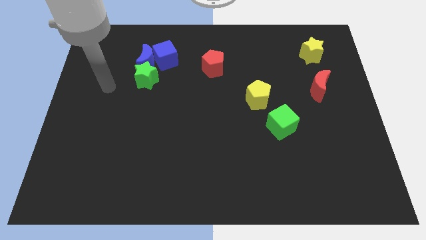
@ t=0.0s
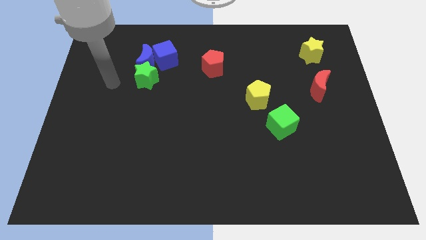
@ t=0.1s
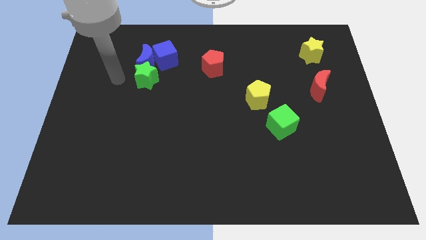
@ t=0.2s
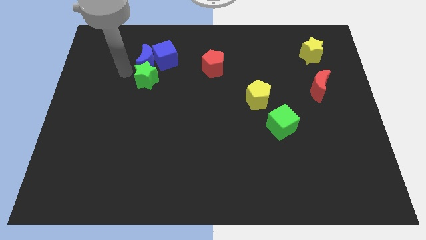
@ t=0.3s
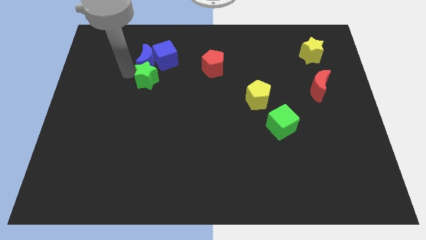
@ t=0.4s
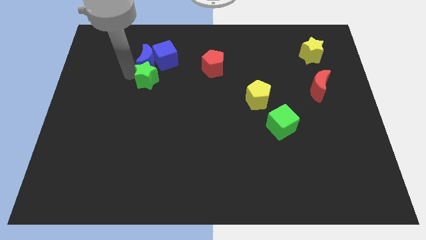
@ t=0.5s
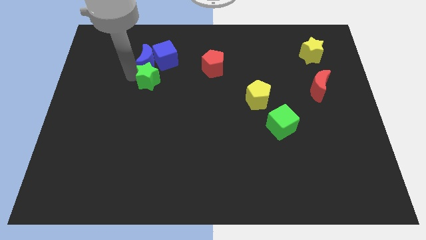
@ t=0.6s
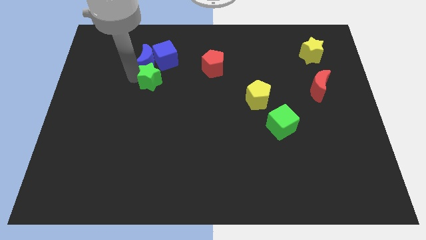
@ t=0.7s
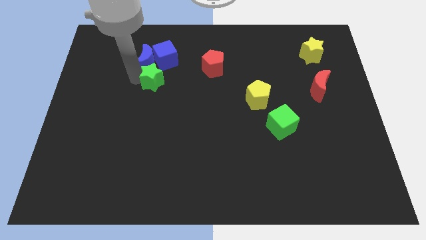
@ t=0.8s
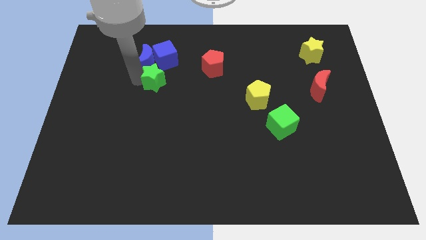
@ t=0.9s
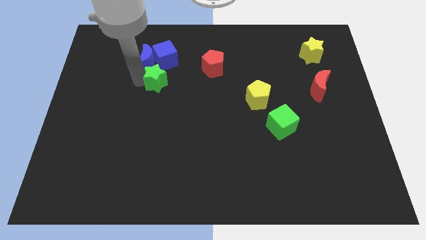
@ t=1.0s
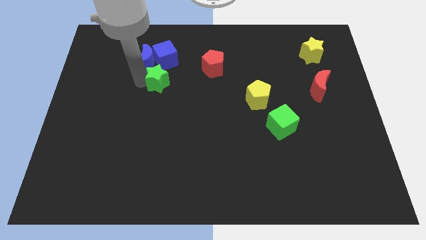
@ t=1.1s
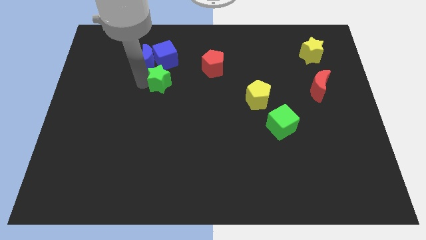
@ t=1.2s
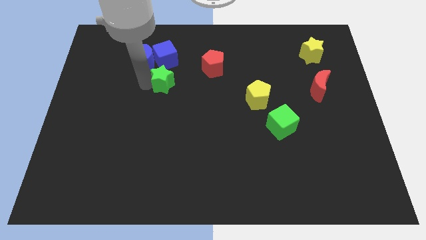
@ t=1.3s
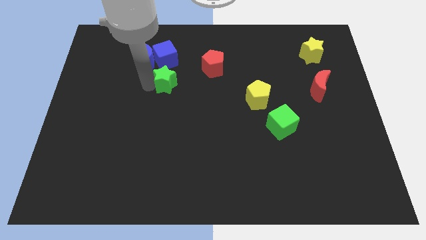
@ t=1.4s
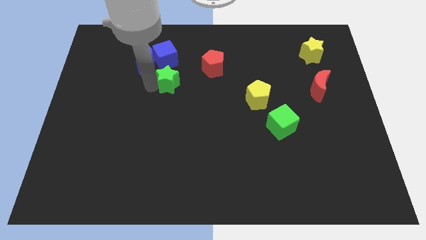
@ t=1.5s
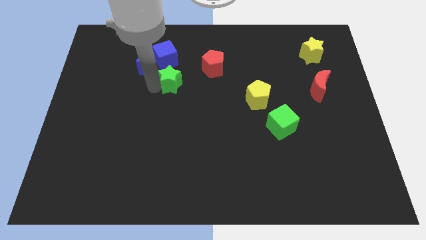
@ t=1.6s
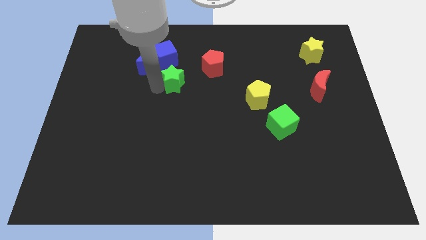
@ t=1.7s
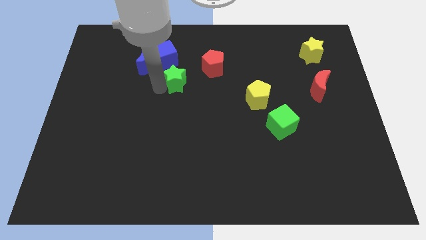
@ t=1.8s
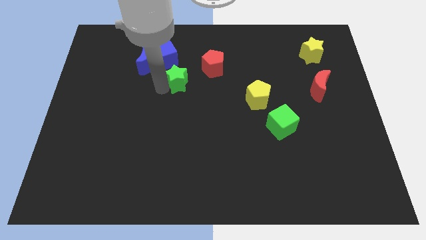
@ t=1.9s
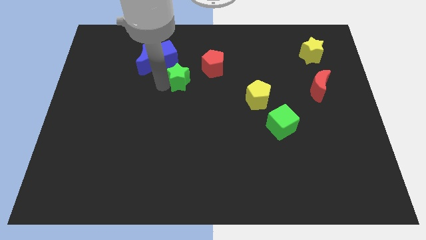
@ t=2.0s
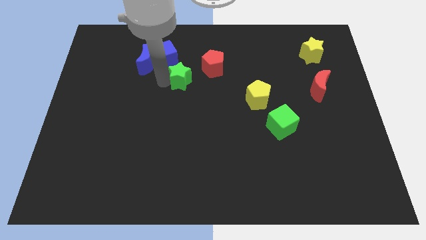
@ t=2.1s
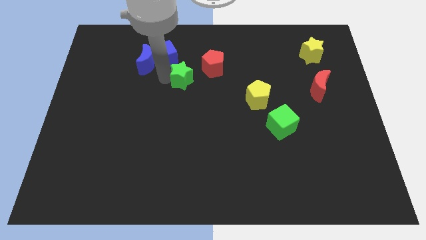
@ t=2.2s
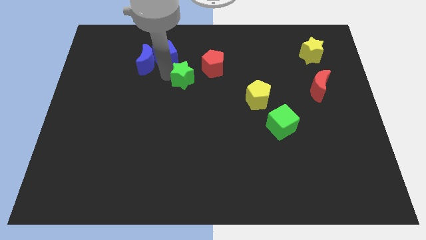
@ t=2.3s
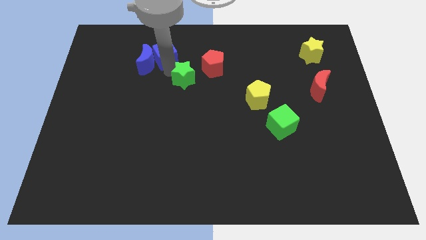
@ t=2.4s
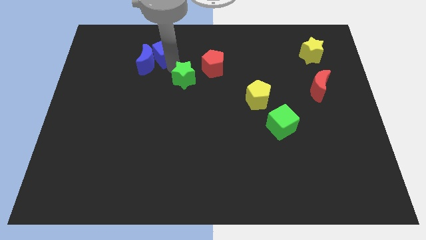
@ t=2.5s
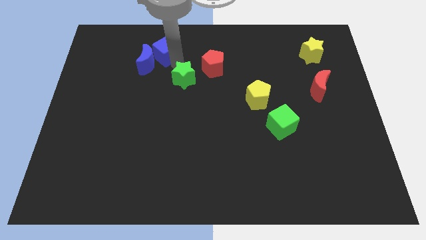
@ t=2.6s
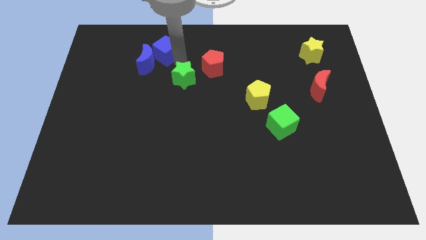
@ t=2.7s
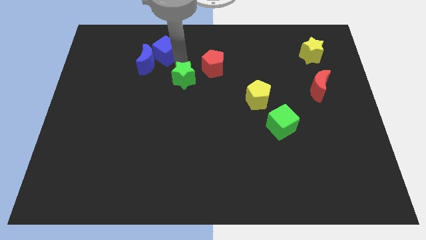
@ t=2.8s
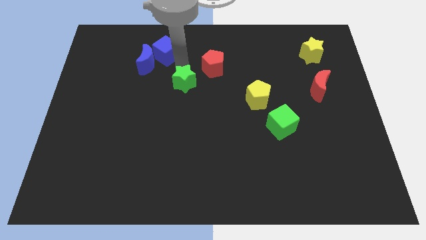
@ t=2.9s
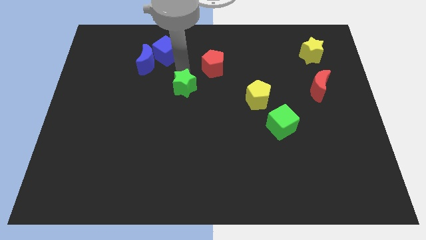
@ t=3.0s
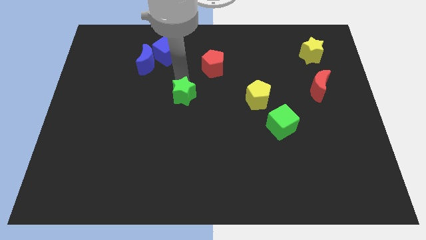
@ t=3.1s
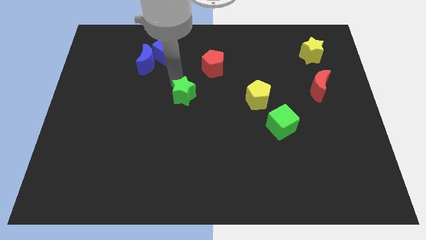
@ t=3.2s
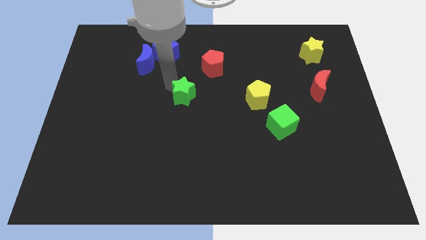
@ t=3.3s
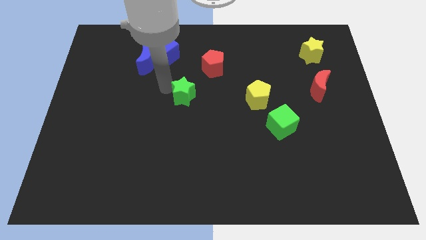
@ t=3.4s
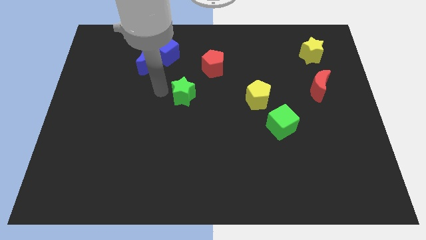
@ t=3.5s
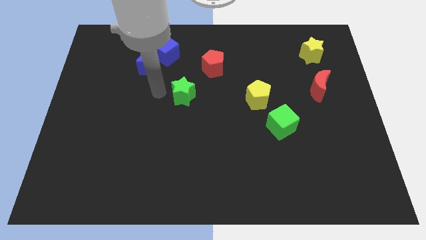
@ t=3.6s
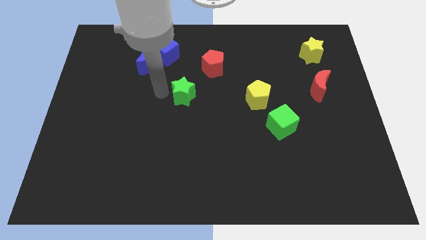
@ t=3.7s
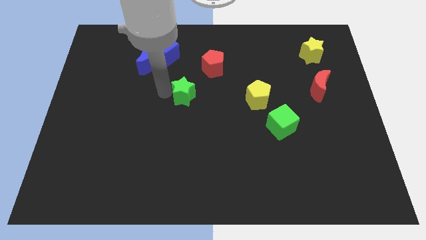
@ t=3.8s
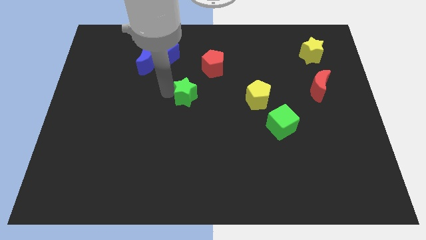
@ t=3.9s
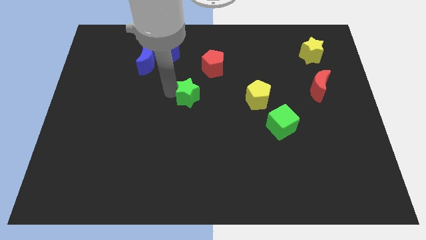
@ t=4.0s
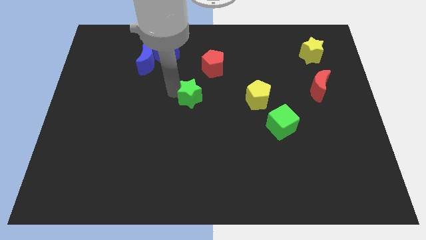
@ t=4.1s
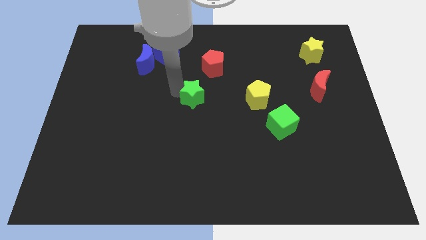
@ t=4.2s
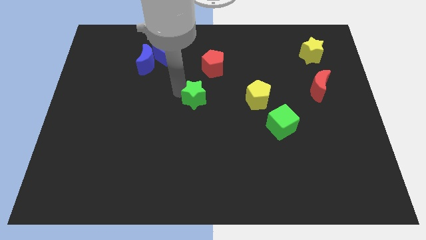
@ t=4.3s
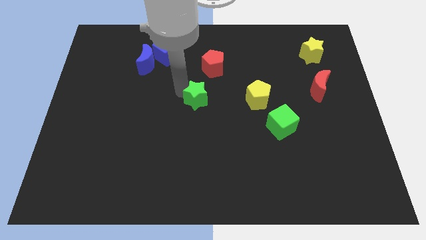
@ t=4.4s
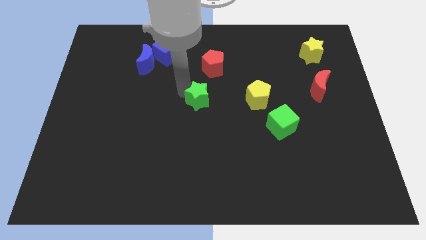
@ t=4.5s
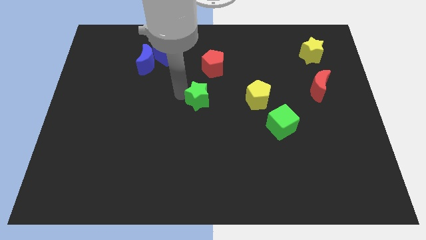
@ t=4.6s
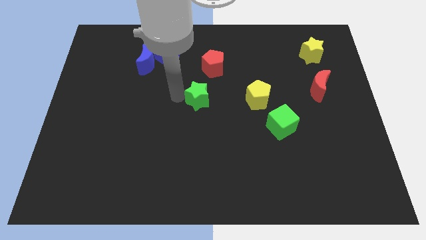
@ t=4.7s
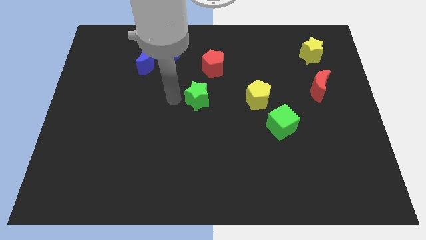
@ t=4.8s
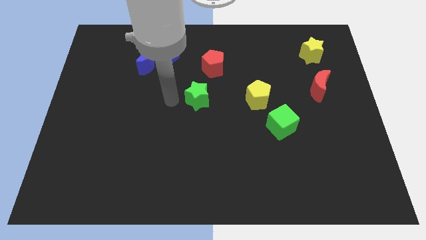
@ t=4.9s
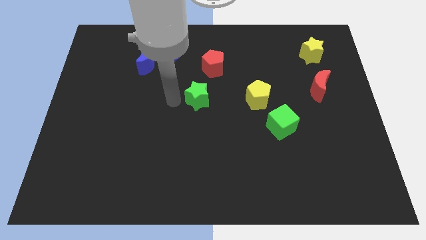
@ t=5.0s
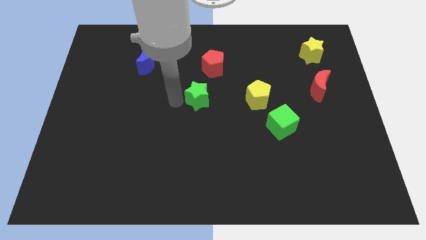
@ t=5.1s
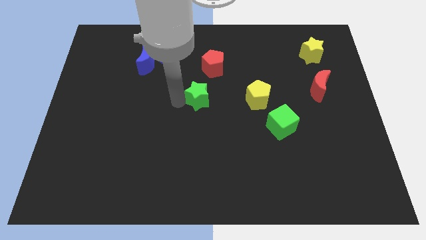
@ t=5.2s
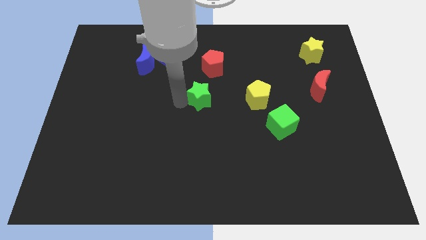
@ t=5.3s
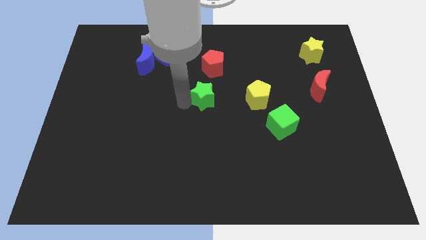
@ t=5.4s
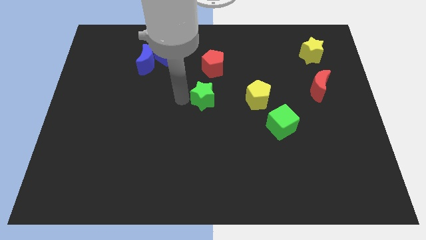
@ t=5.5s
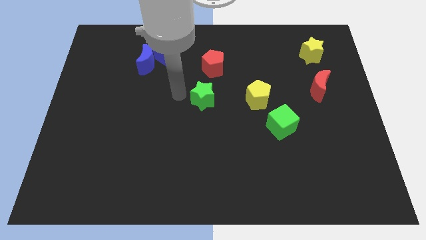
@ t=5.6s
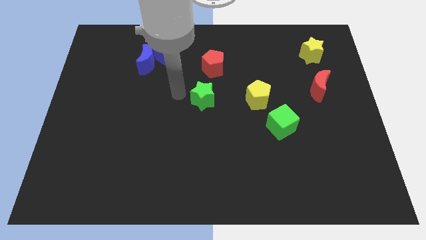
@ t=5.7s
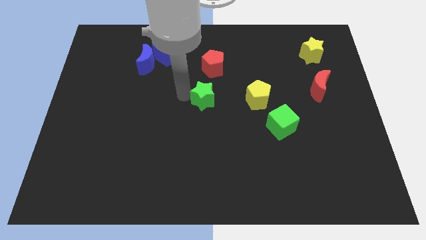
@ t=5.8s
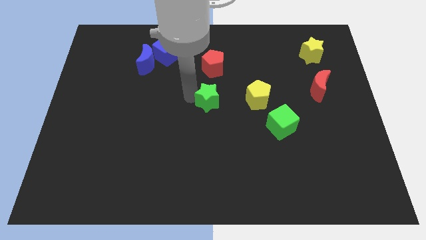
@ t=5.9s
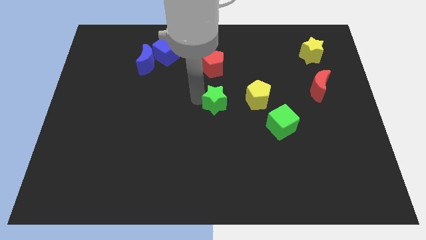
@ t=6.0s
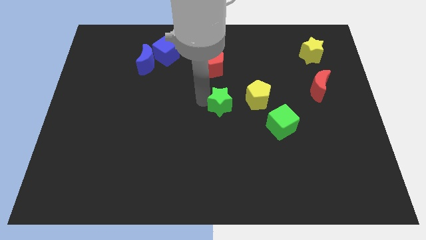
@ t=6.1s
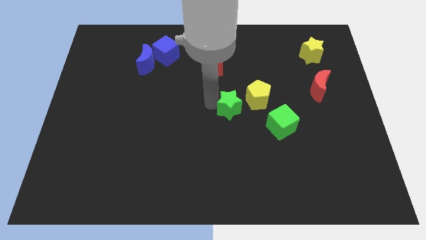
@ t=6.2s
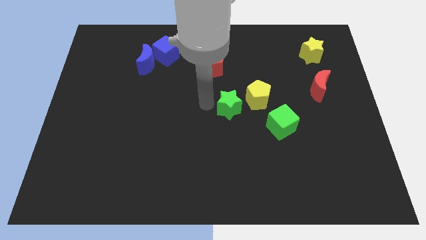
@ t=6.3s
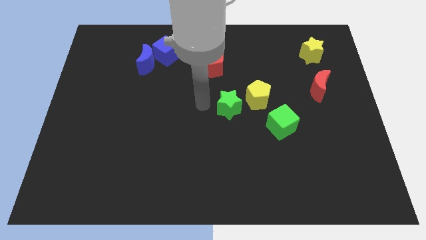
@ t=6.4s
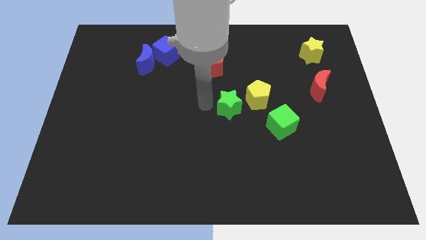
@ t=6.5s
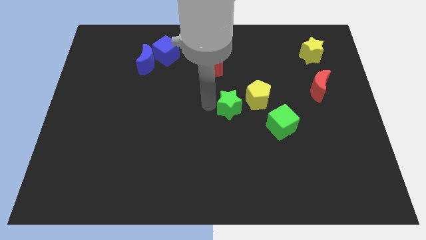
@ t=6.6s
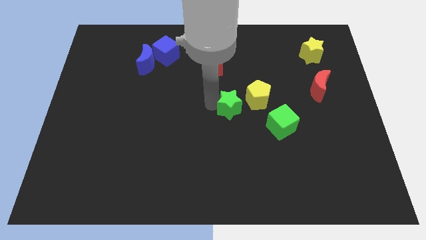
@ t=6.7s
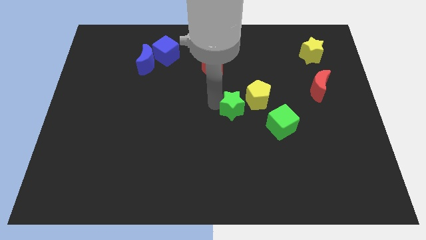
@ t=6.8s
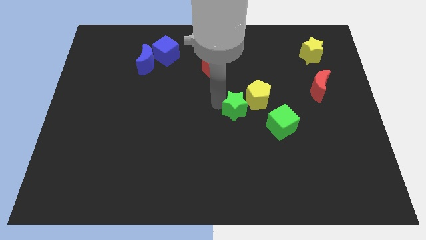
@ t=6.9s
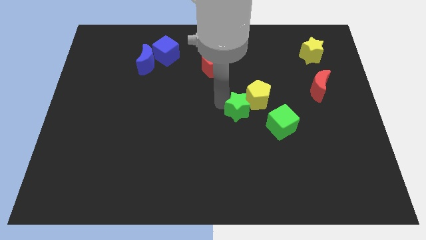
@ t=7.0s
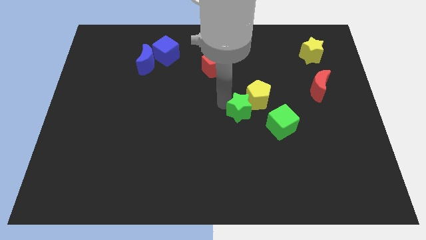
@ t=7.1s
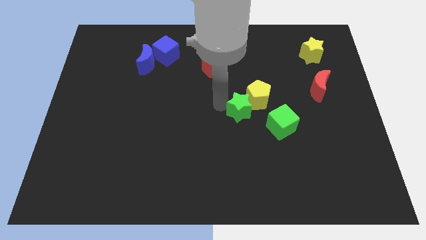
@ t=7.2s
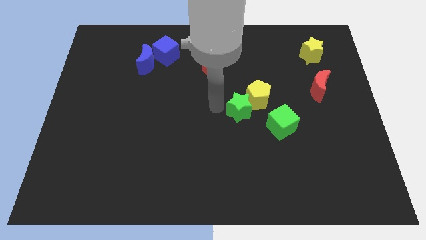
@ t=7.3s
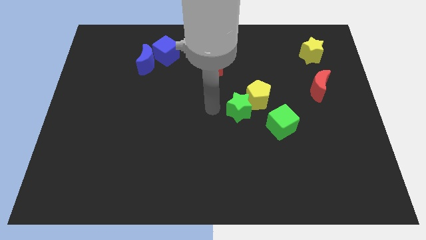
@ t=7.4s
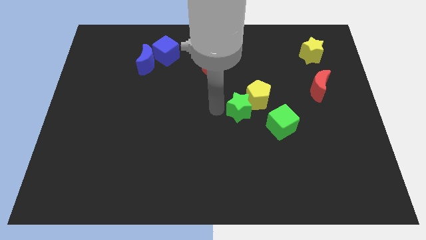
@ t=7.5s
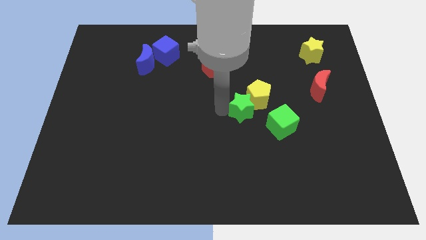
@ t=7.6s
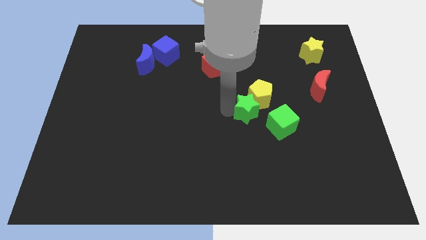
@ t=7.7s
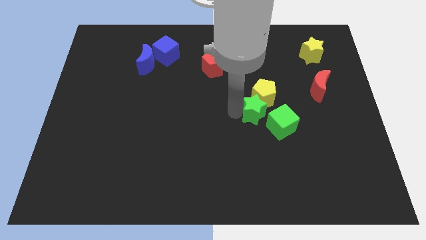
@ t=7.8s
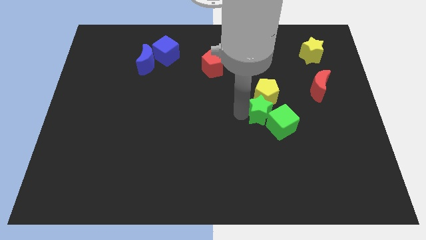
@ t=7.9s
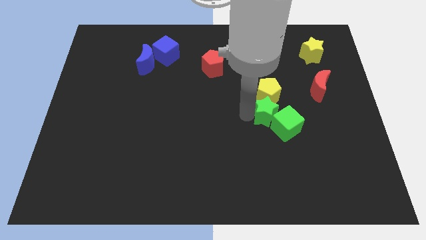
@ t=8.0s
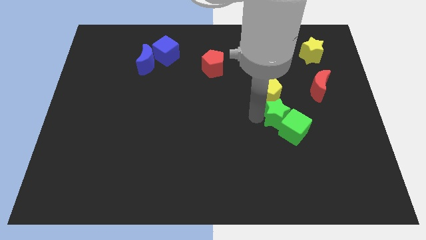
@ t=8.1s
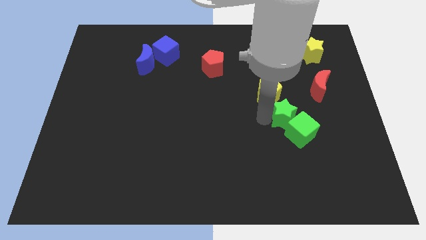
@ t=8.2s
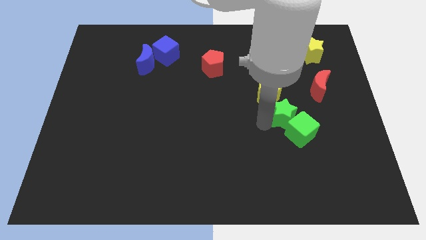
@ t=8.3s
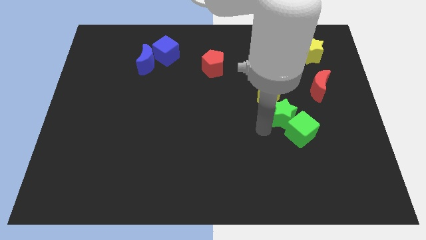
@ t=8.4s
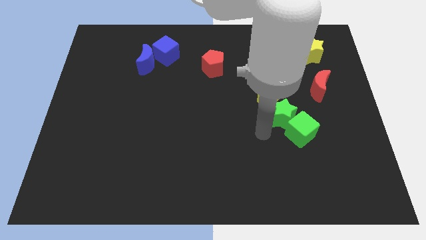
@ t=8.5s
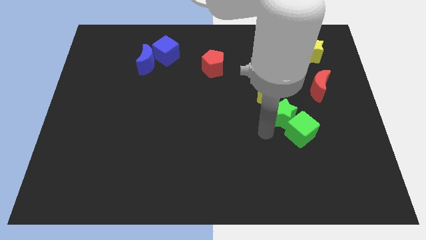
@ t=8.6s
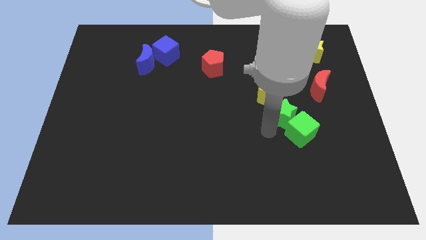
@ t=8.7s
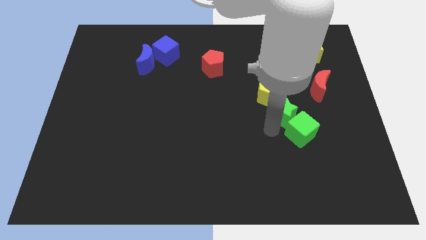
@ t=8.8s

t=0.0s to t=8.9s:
push the green star to the bottom left of the red moon
